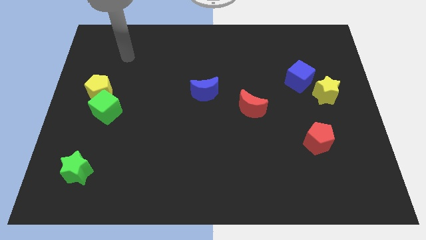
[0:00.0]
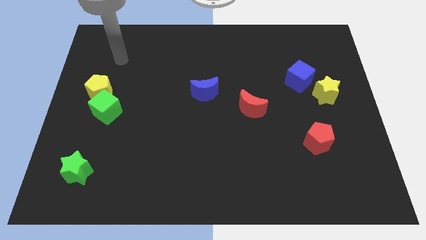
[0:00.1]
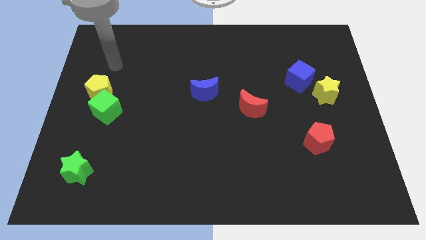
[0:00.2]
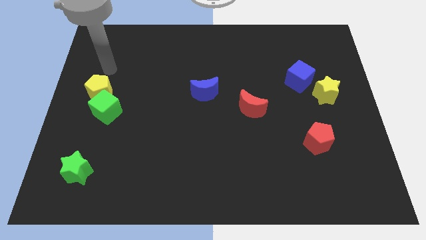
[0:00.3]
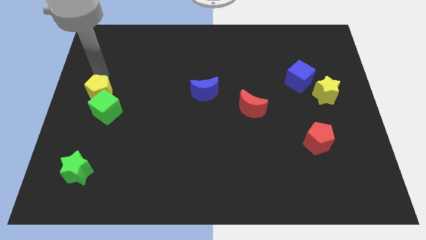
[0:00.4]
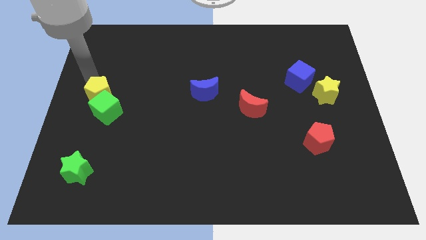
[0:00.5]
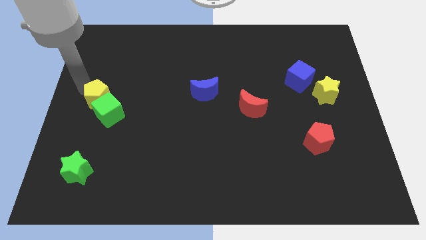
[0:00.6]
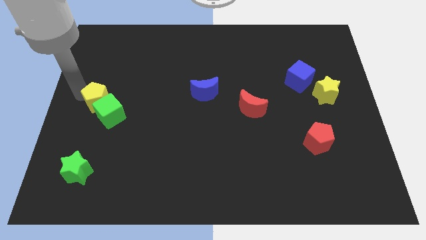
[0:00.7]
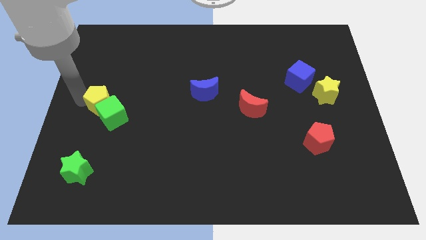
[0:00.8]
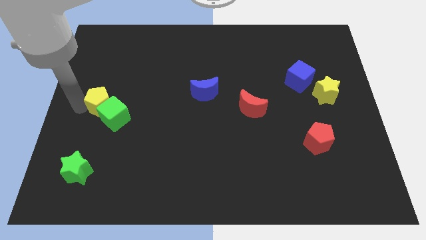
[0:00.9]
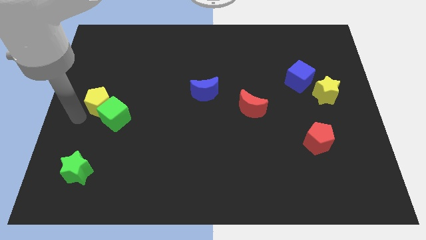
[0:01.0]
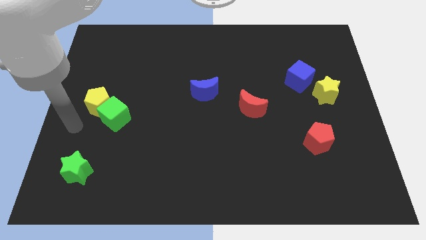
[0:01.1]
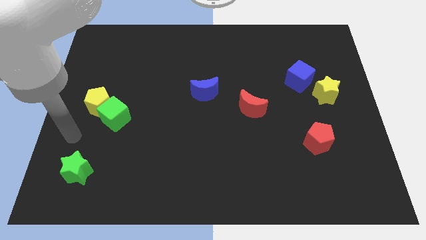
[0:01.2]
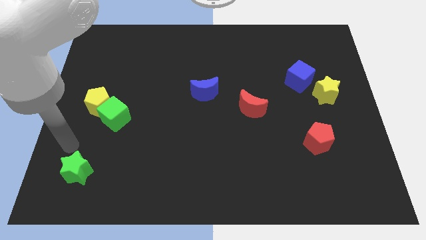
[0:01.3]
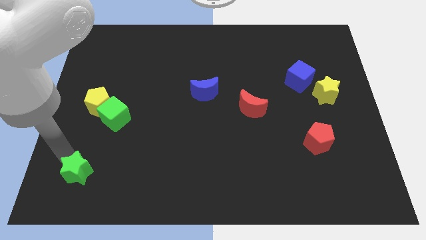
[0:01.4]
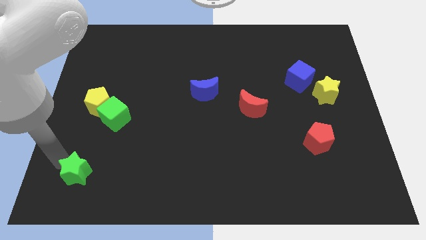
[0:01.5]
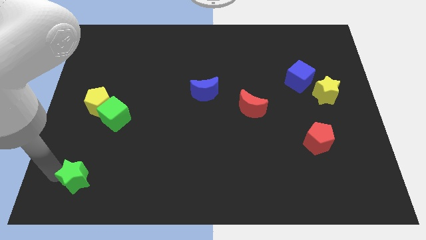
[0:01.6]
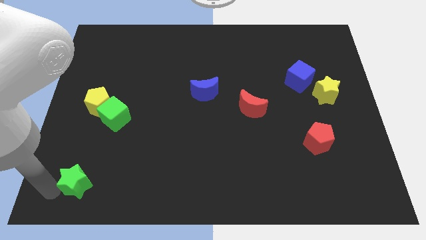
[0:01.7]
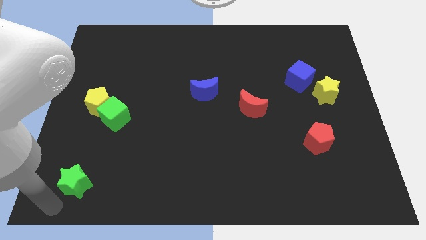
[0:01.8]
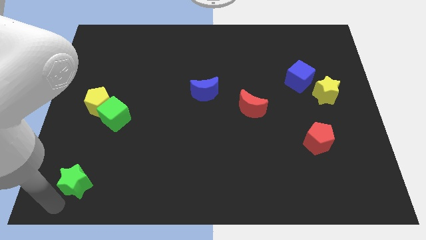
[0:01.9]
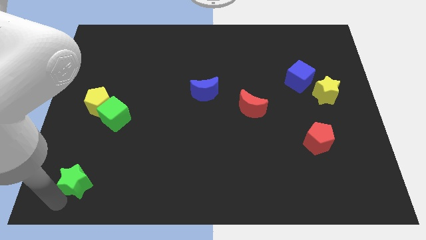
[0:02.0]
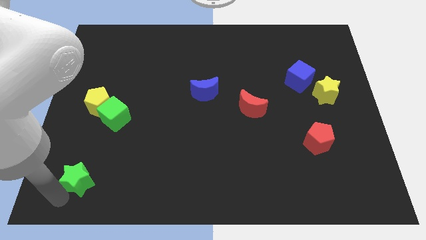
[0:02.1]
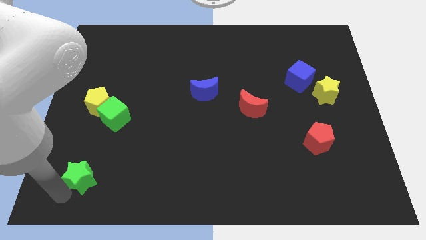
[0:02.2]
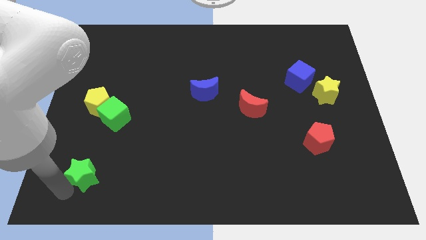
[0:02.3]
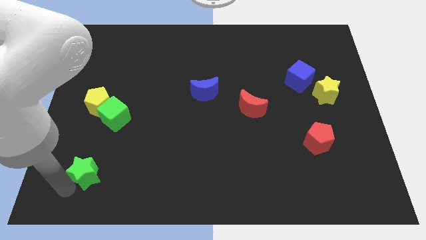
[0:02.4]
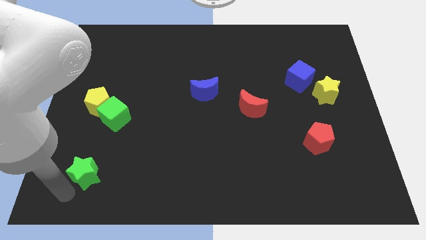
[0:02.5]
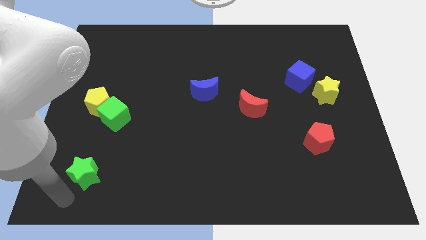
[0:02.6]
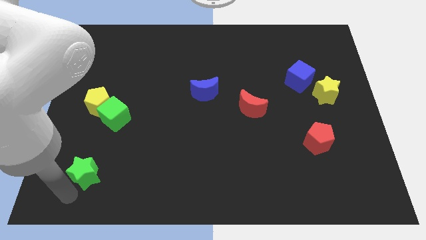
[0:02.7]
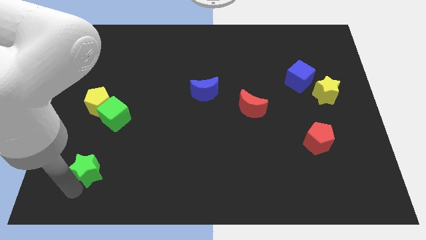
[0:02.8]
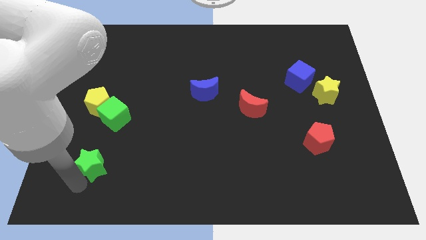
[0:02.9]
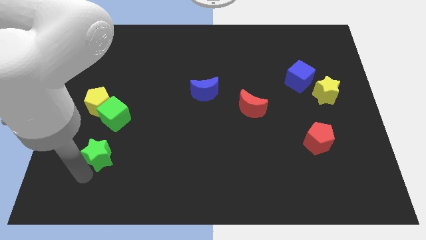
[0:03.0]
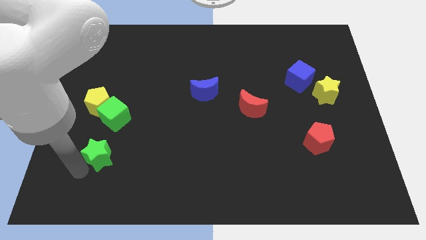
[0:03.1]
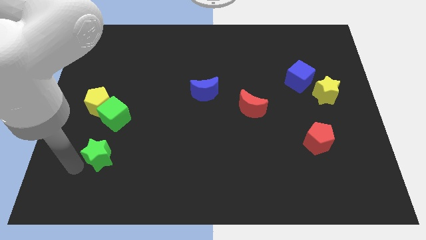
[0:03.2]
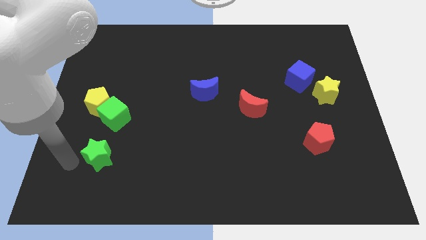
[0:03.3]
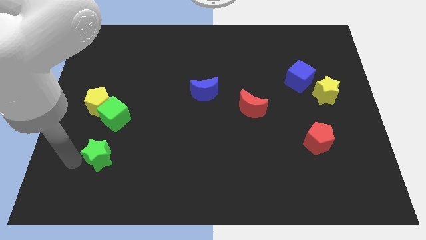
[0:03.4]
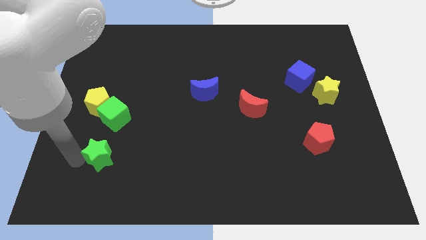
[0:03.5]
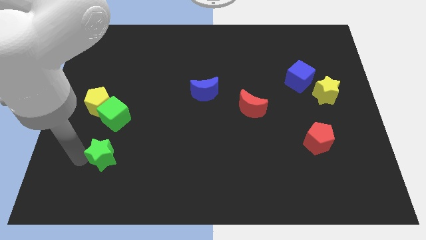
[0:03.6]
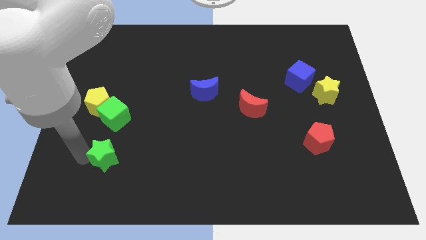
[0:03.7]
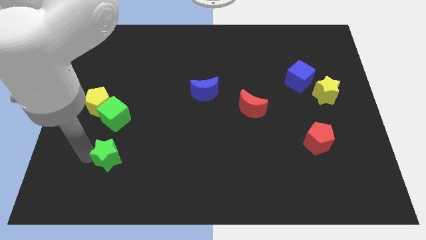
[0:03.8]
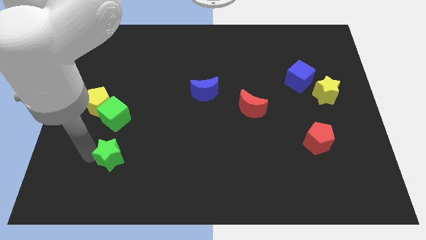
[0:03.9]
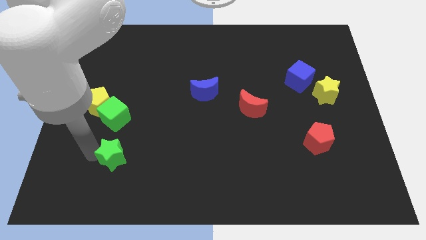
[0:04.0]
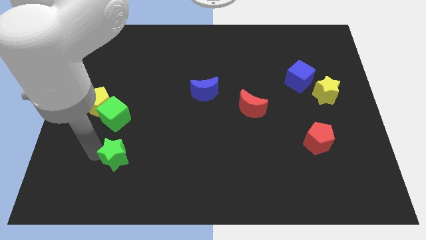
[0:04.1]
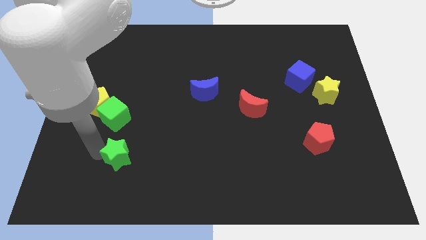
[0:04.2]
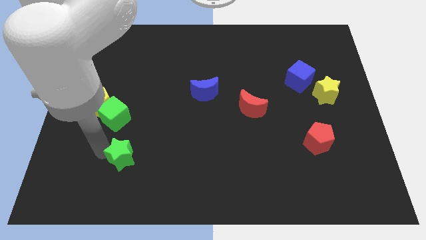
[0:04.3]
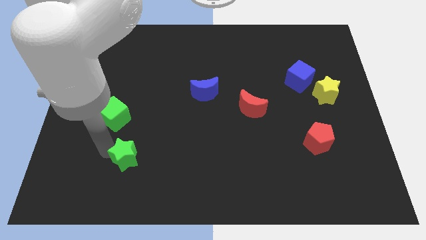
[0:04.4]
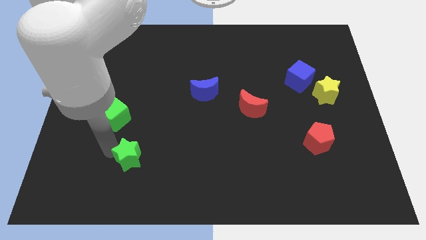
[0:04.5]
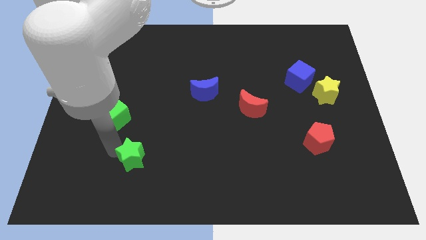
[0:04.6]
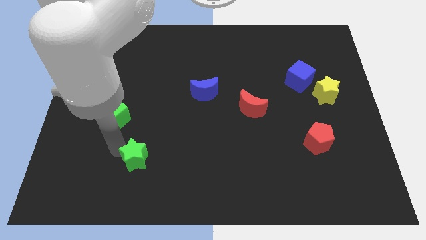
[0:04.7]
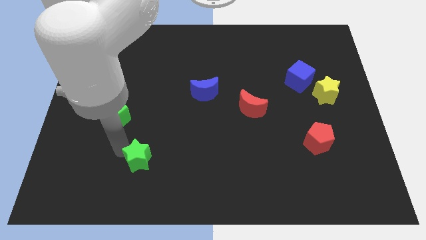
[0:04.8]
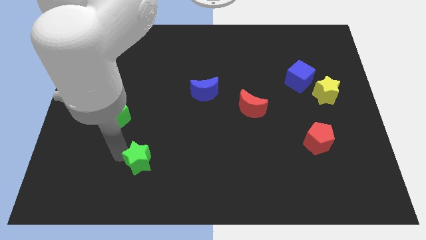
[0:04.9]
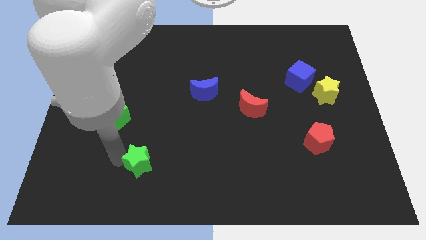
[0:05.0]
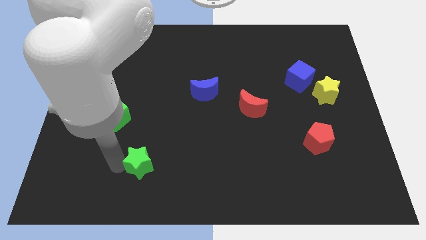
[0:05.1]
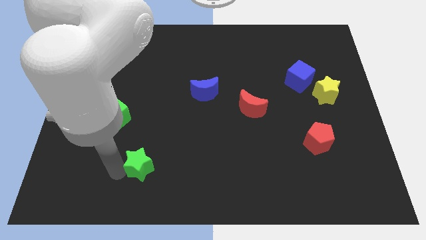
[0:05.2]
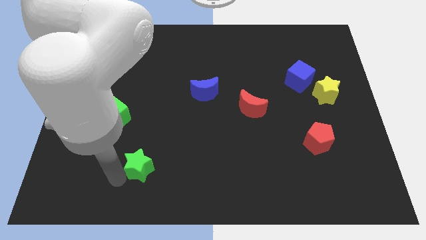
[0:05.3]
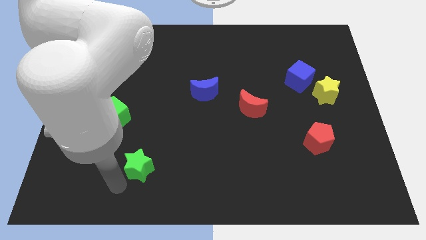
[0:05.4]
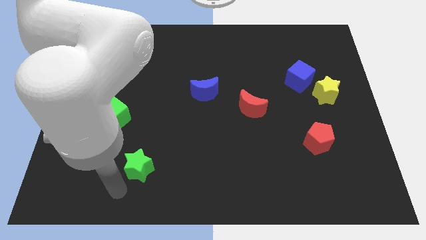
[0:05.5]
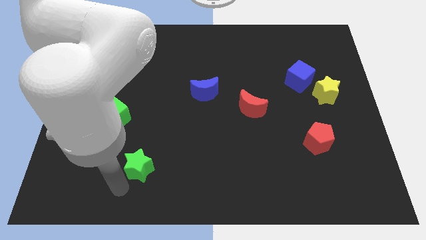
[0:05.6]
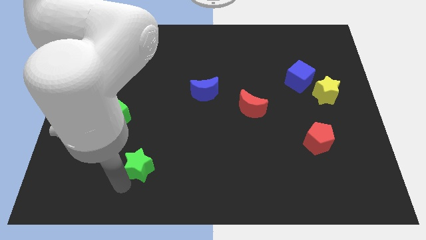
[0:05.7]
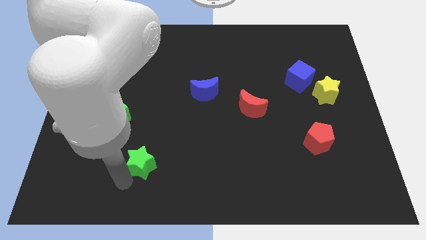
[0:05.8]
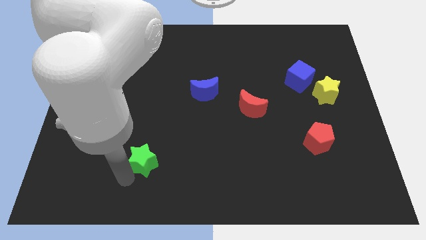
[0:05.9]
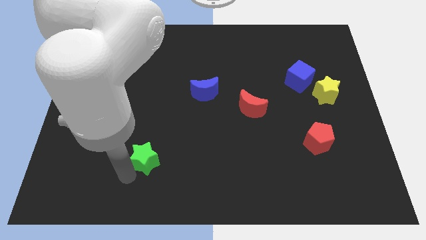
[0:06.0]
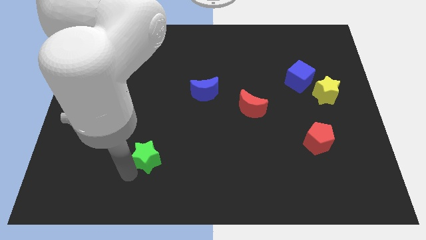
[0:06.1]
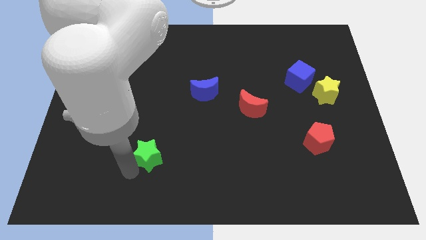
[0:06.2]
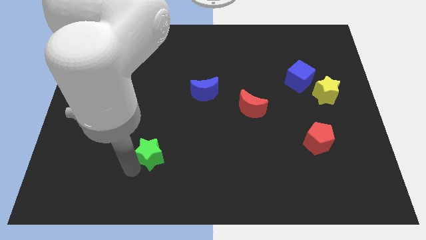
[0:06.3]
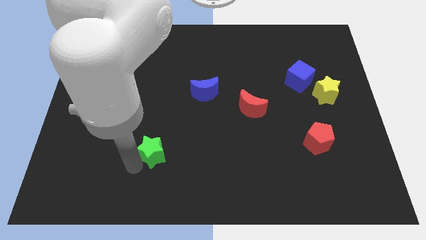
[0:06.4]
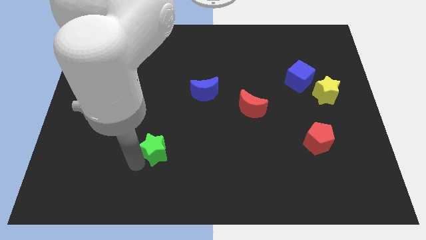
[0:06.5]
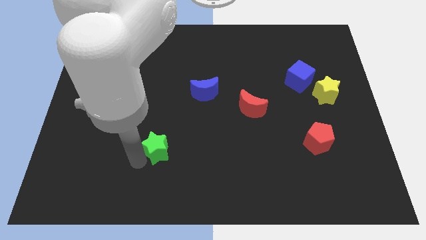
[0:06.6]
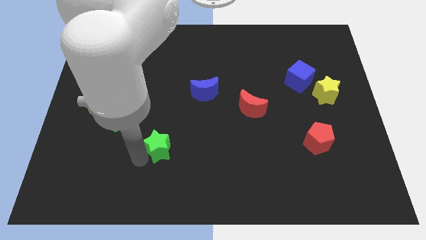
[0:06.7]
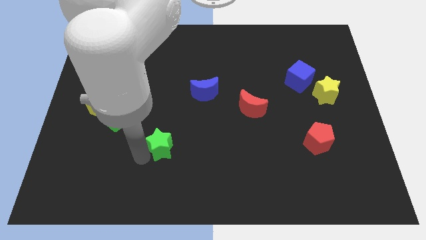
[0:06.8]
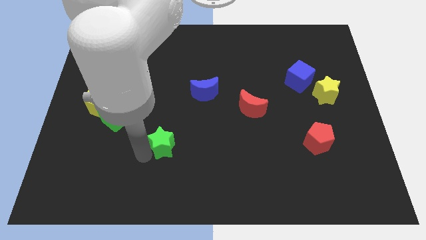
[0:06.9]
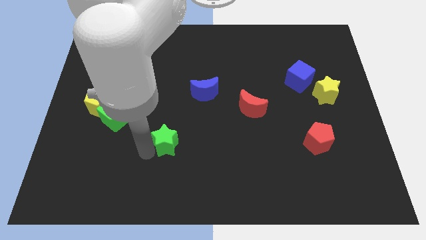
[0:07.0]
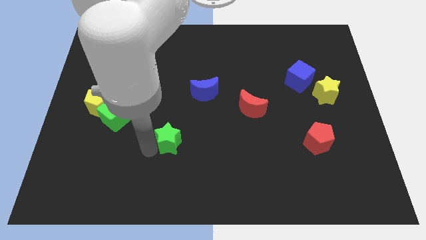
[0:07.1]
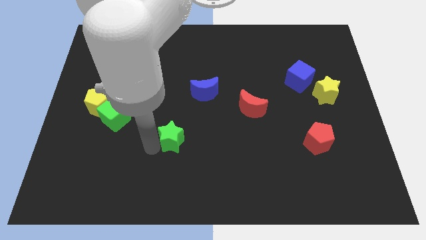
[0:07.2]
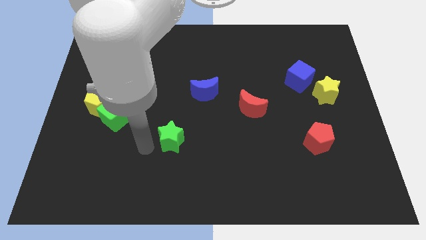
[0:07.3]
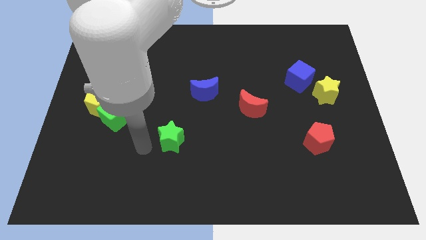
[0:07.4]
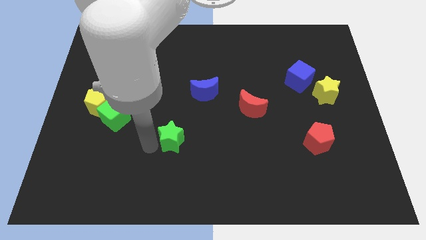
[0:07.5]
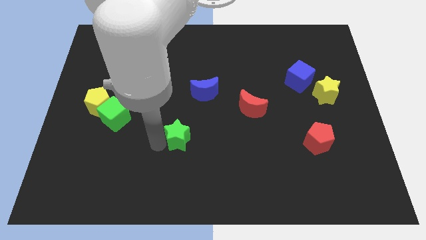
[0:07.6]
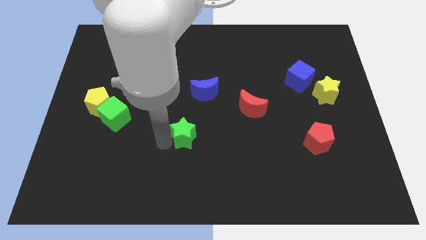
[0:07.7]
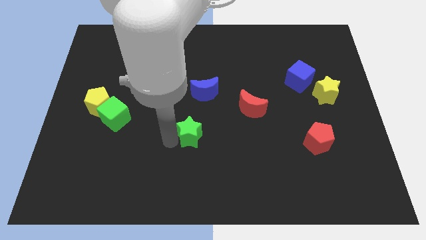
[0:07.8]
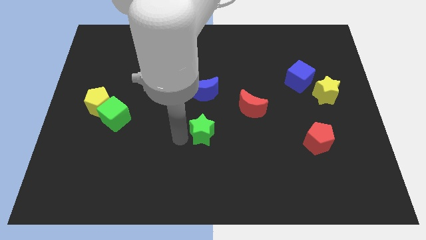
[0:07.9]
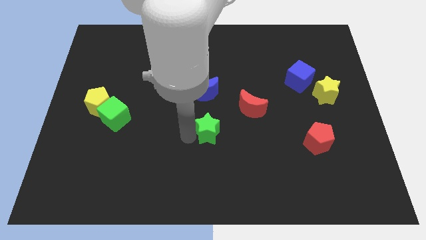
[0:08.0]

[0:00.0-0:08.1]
slide the green star to the bottom left side of the red moon
